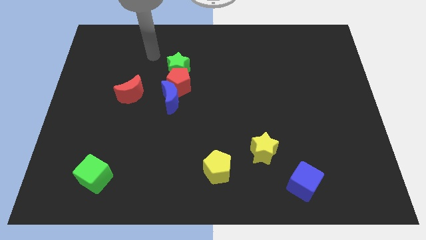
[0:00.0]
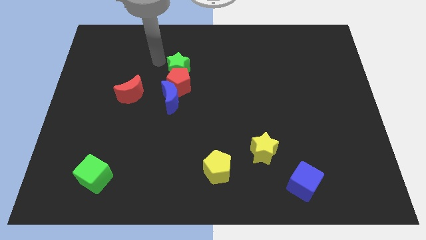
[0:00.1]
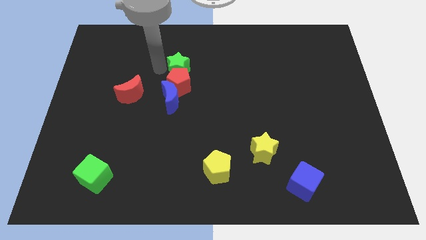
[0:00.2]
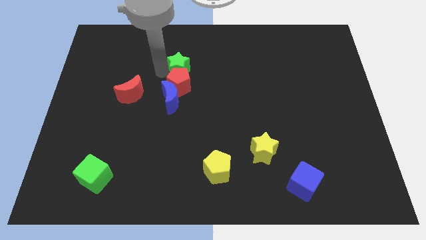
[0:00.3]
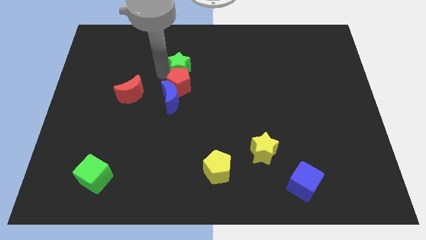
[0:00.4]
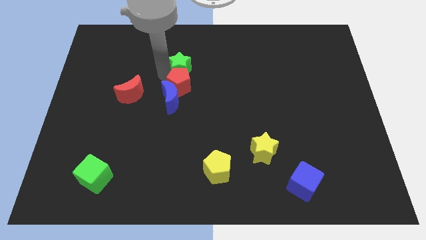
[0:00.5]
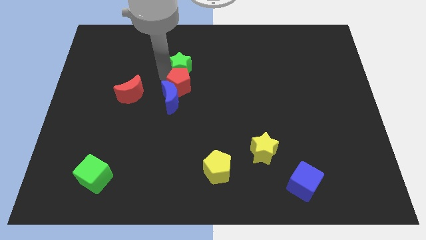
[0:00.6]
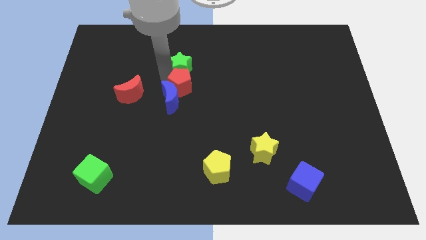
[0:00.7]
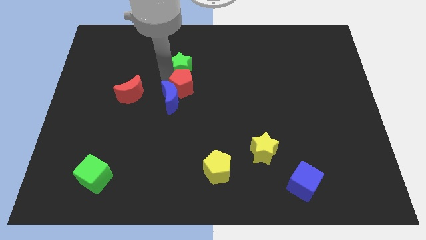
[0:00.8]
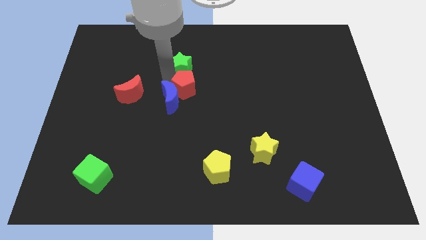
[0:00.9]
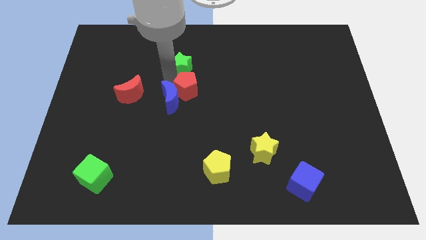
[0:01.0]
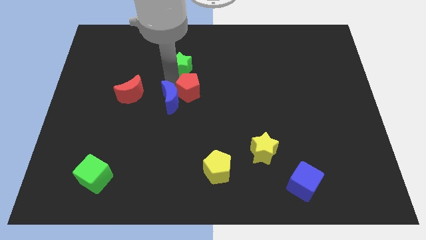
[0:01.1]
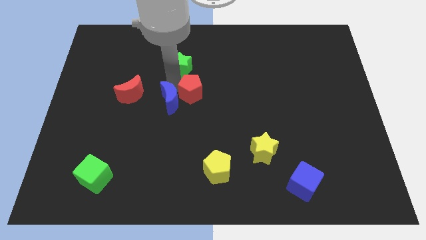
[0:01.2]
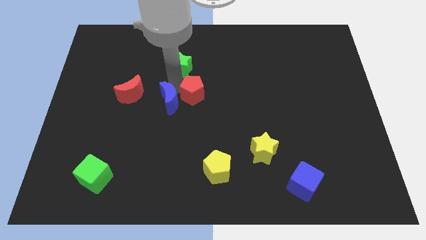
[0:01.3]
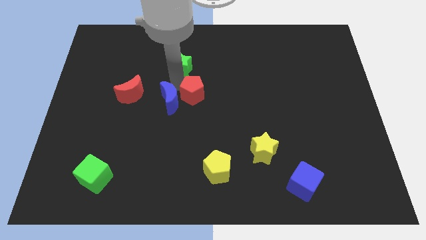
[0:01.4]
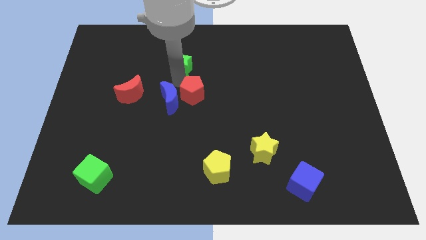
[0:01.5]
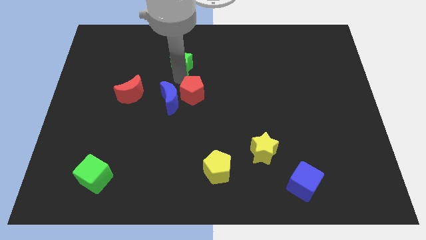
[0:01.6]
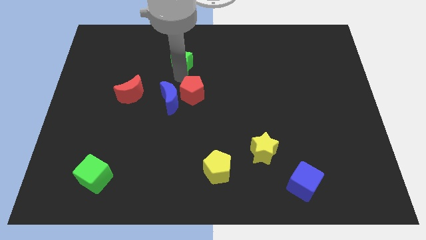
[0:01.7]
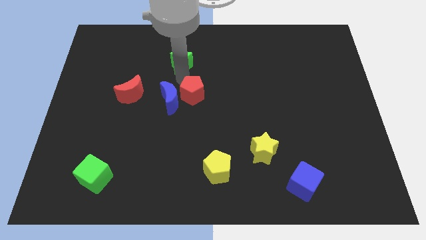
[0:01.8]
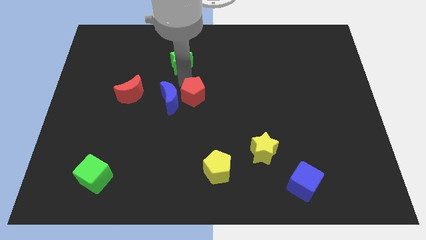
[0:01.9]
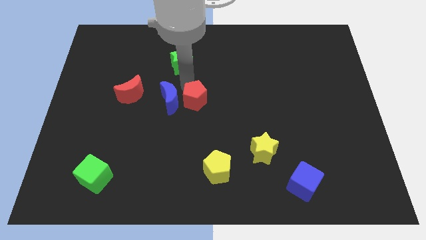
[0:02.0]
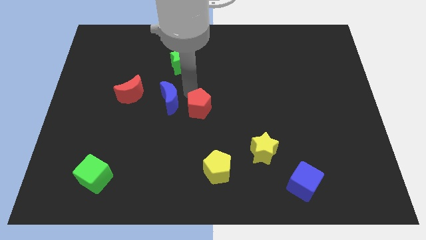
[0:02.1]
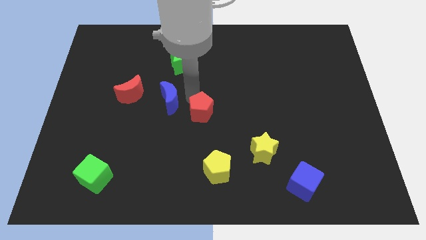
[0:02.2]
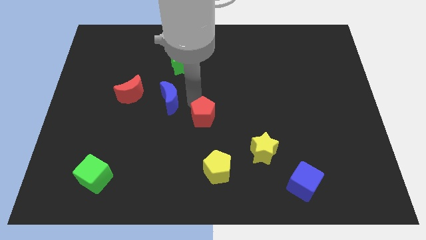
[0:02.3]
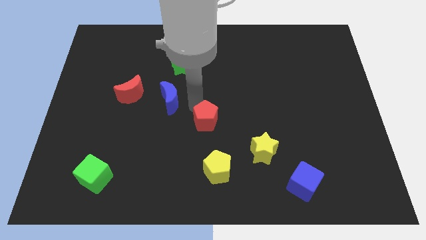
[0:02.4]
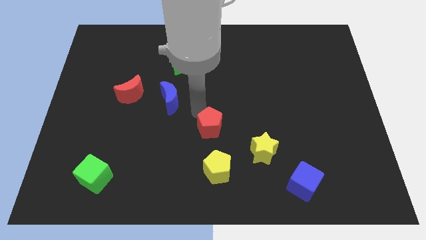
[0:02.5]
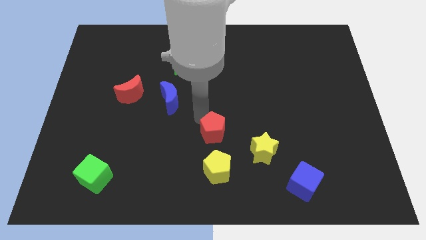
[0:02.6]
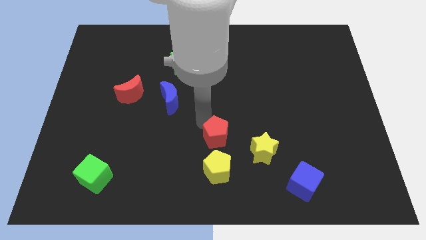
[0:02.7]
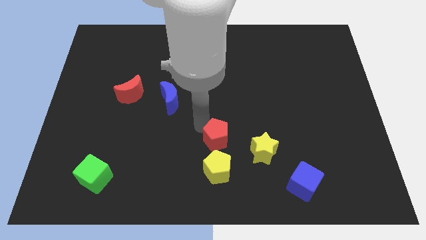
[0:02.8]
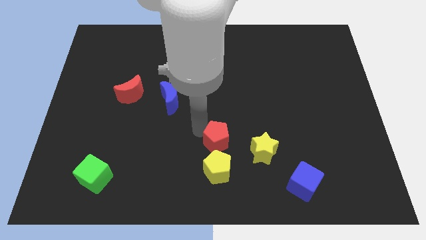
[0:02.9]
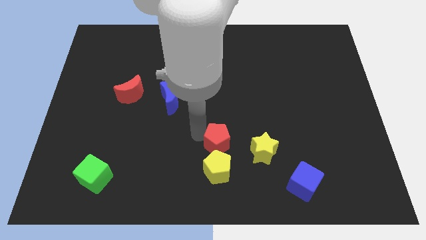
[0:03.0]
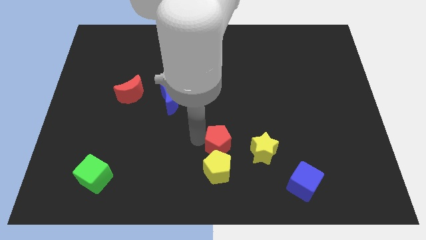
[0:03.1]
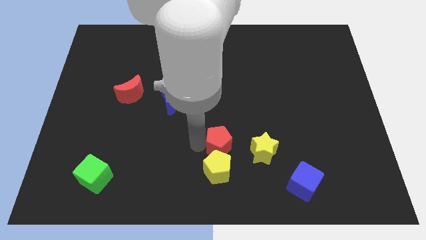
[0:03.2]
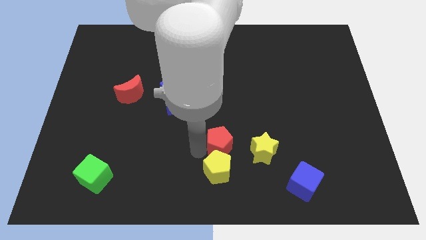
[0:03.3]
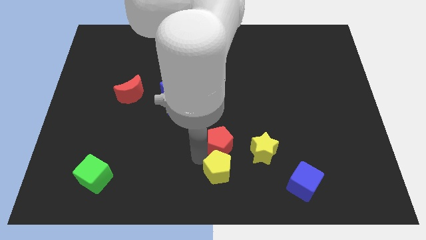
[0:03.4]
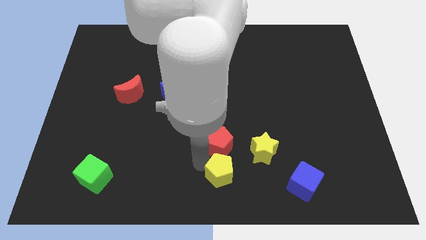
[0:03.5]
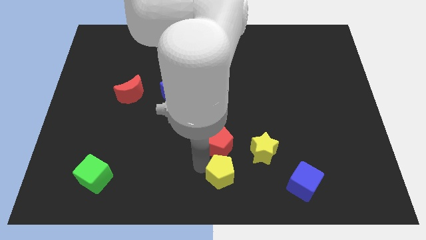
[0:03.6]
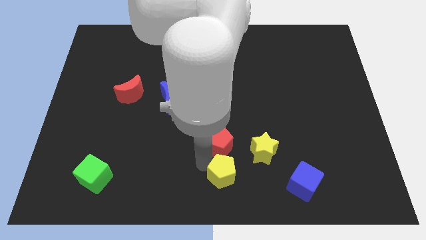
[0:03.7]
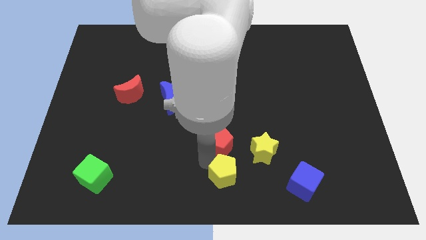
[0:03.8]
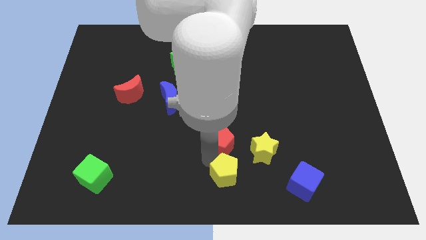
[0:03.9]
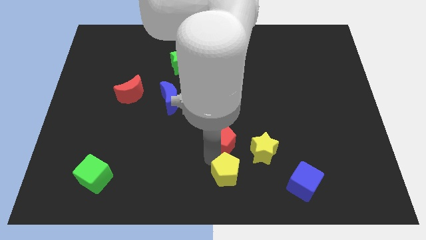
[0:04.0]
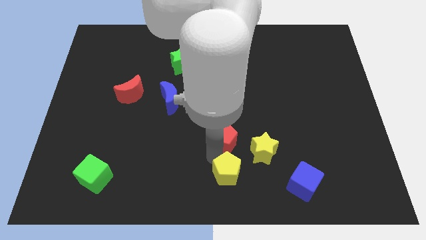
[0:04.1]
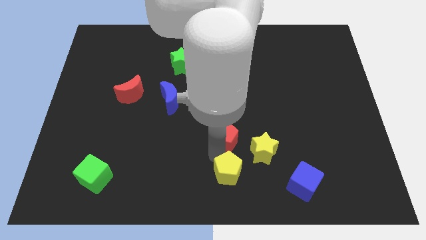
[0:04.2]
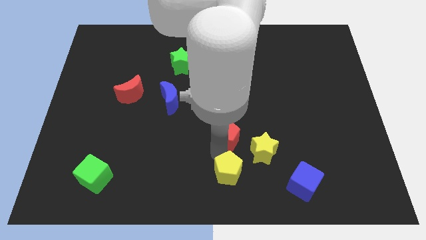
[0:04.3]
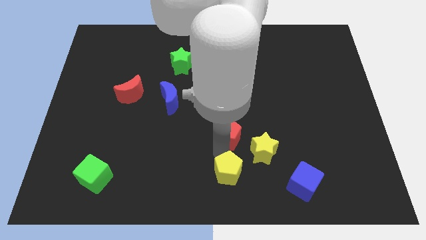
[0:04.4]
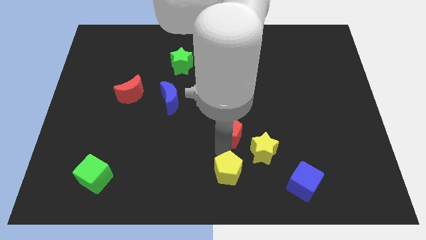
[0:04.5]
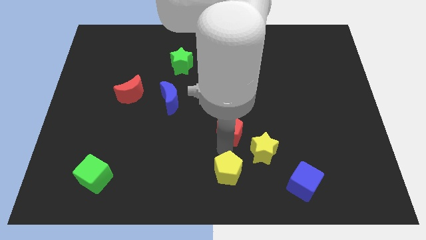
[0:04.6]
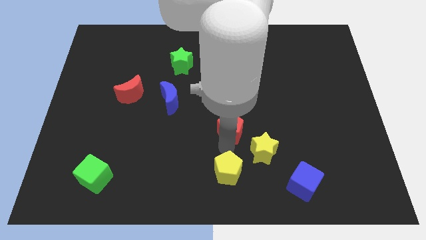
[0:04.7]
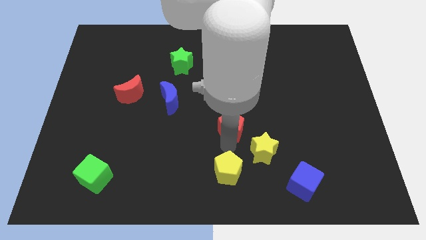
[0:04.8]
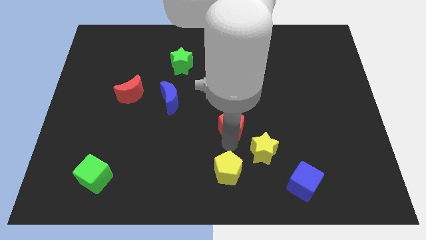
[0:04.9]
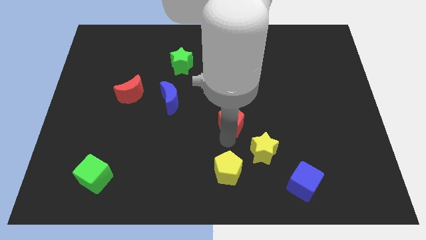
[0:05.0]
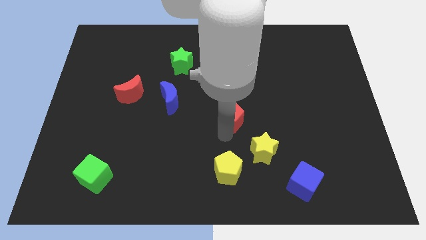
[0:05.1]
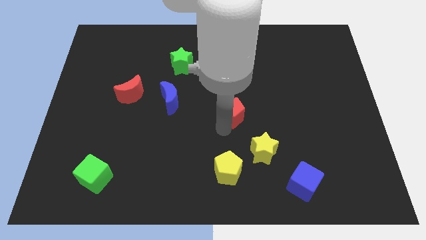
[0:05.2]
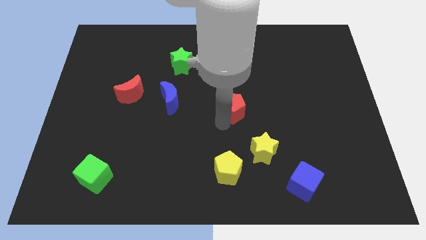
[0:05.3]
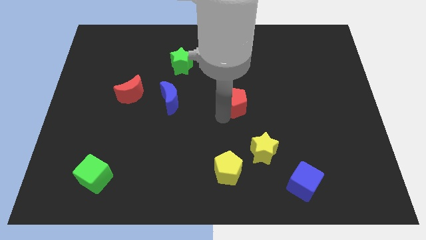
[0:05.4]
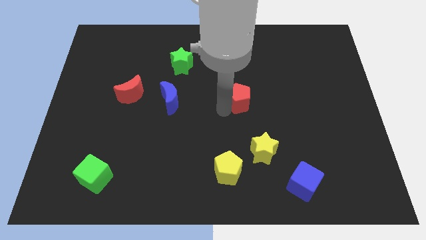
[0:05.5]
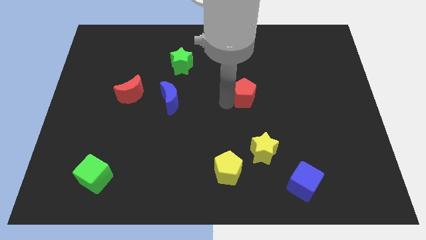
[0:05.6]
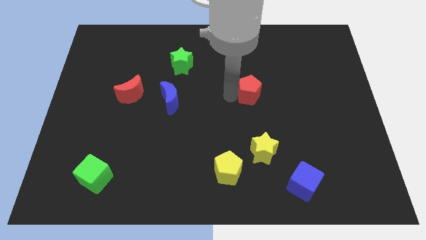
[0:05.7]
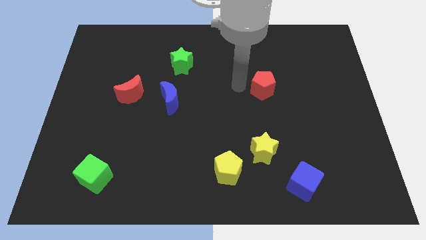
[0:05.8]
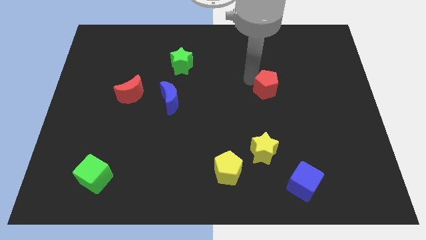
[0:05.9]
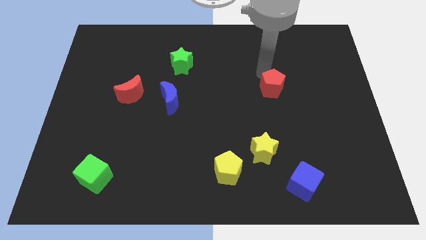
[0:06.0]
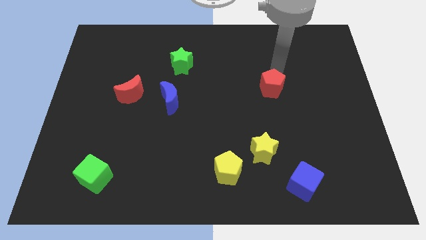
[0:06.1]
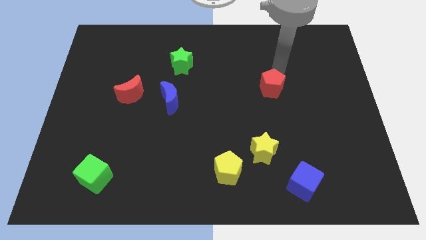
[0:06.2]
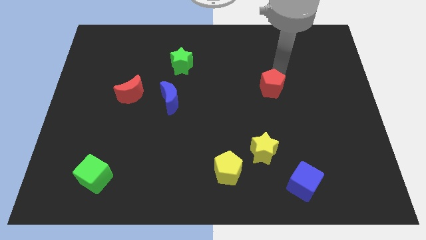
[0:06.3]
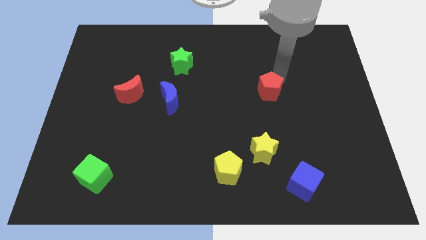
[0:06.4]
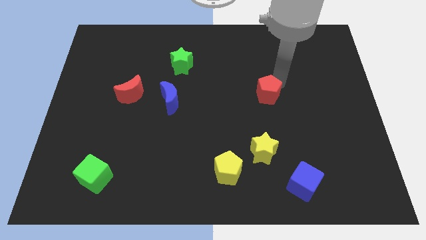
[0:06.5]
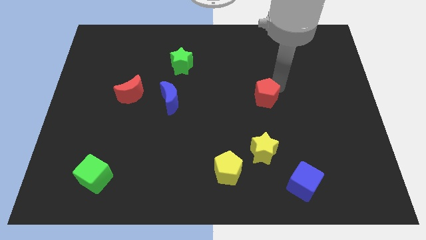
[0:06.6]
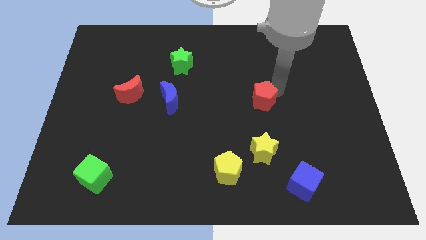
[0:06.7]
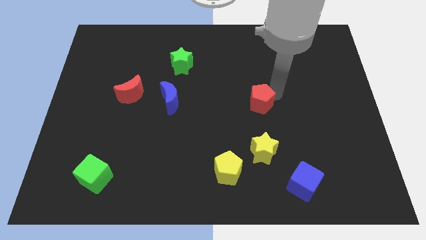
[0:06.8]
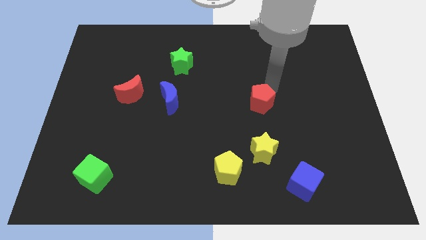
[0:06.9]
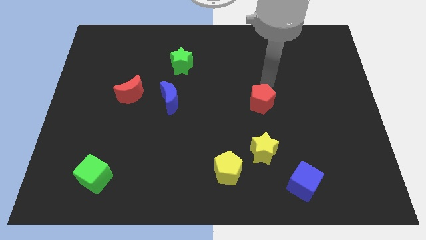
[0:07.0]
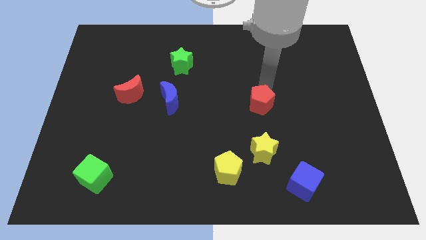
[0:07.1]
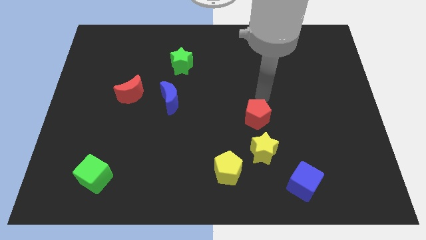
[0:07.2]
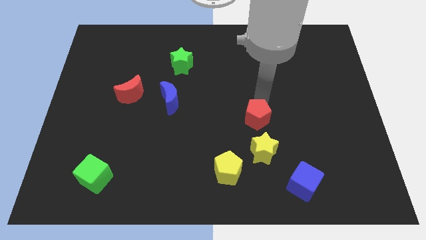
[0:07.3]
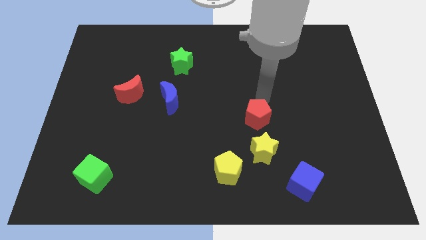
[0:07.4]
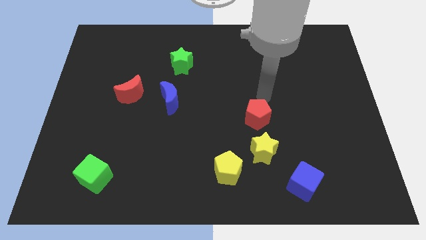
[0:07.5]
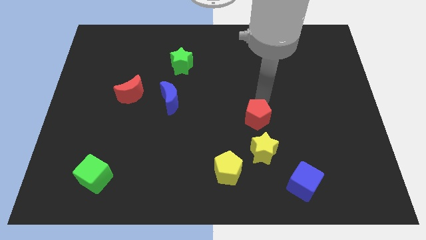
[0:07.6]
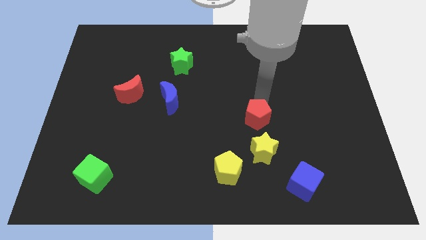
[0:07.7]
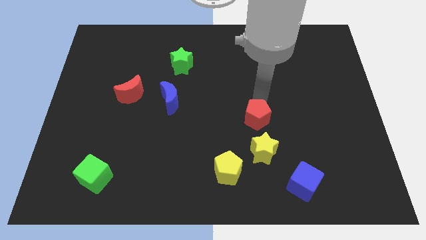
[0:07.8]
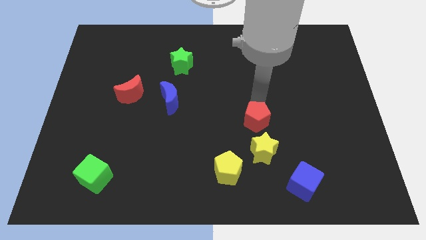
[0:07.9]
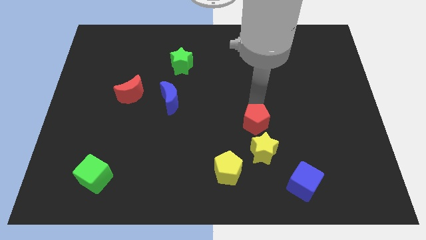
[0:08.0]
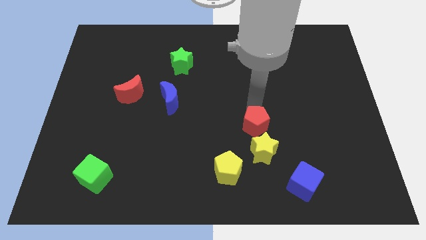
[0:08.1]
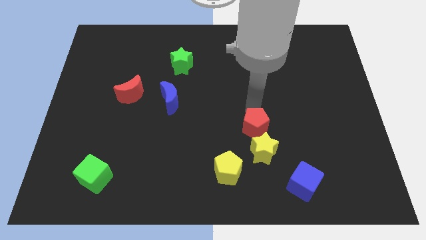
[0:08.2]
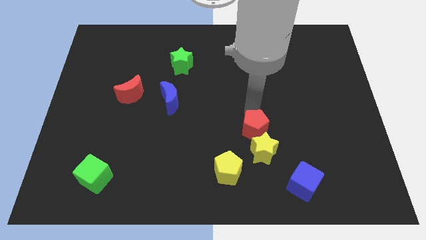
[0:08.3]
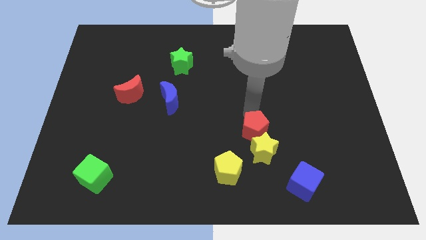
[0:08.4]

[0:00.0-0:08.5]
push the red pentagon towards the yellow star
